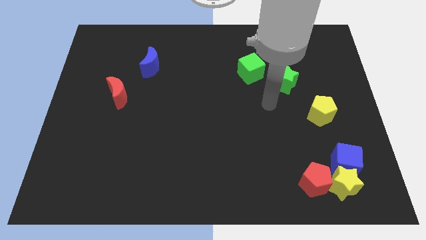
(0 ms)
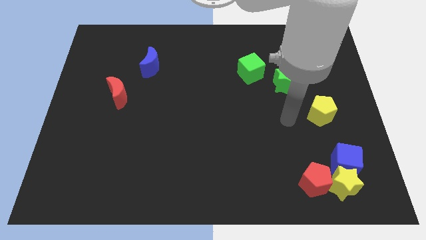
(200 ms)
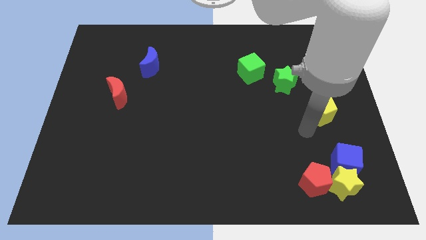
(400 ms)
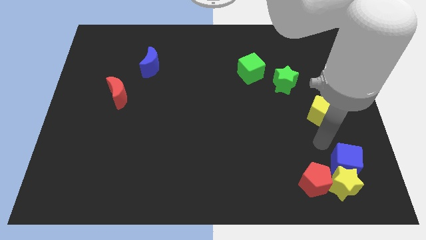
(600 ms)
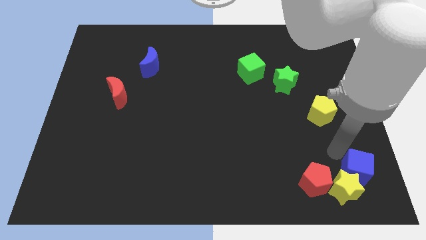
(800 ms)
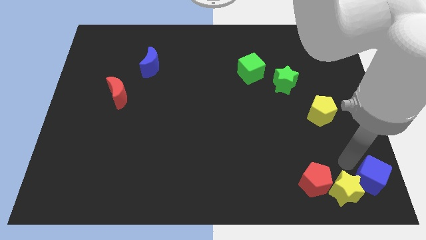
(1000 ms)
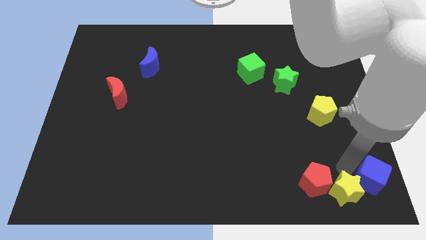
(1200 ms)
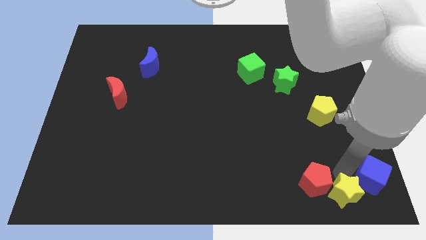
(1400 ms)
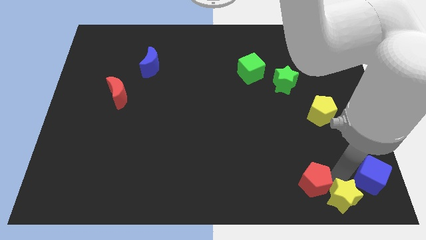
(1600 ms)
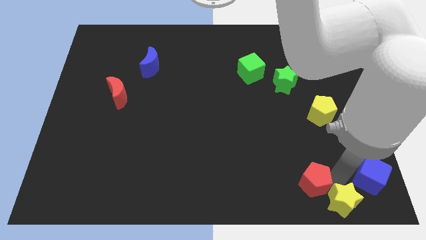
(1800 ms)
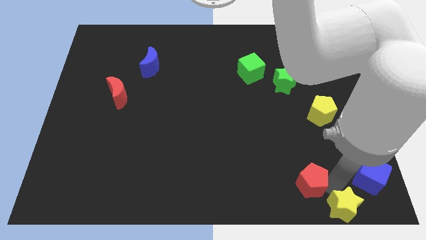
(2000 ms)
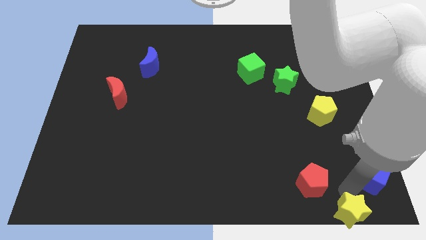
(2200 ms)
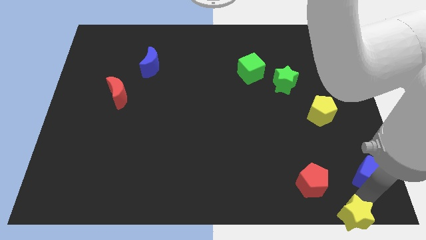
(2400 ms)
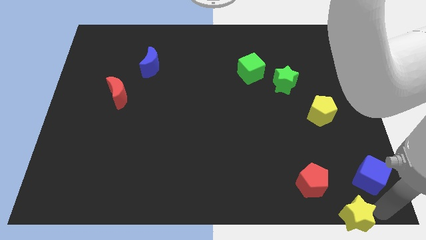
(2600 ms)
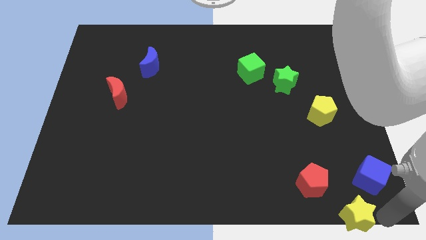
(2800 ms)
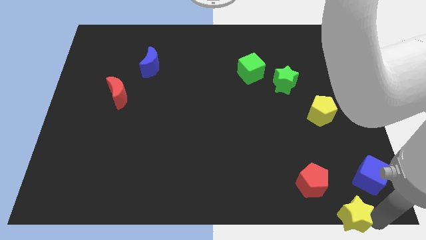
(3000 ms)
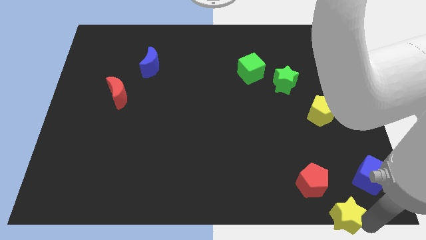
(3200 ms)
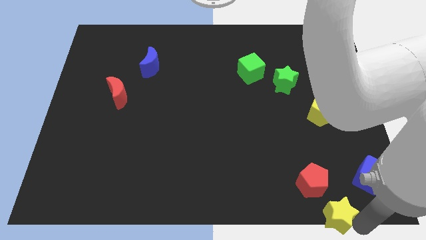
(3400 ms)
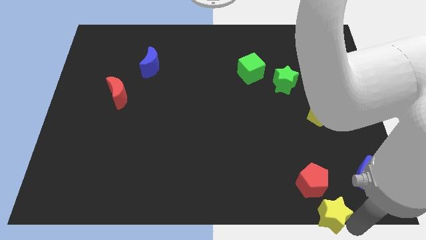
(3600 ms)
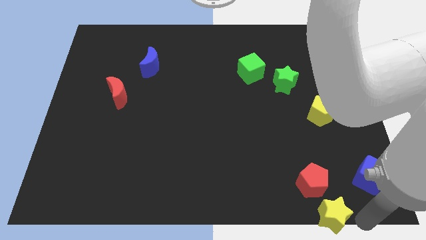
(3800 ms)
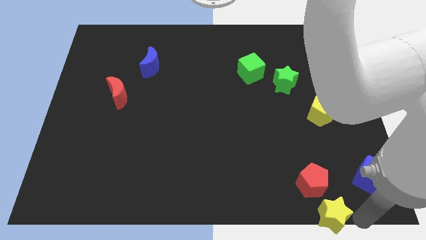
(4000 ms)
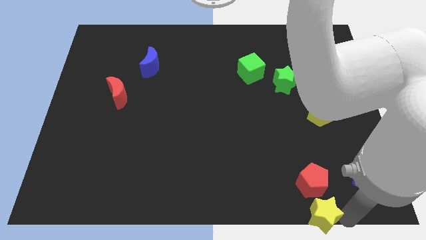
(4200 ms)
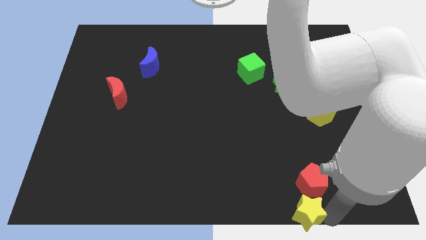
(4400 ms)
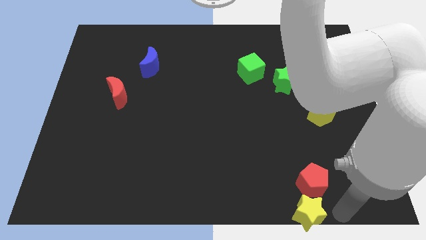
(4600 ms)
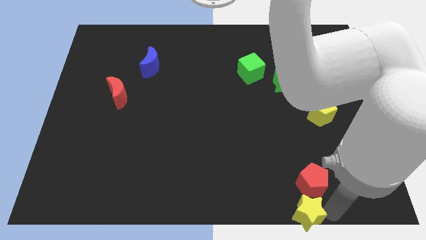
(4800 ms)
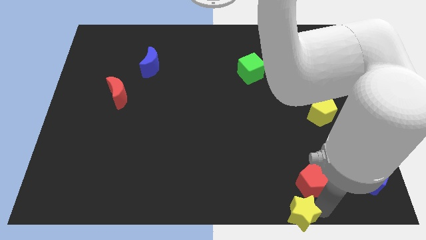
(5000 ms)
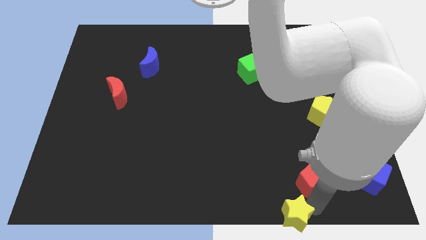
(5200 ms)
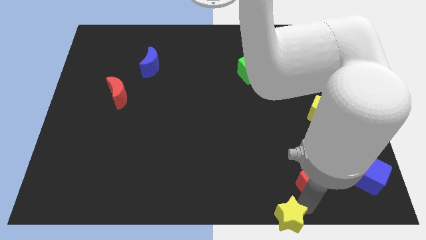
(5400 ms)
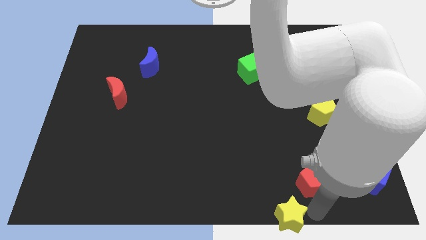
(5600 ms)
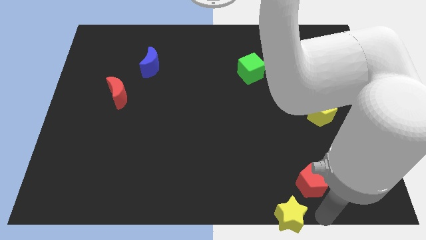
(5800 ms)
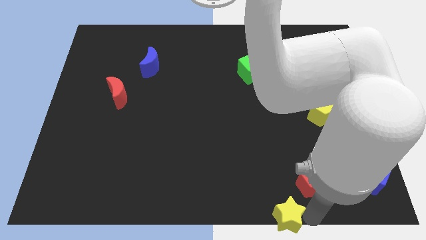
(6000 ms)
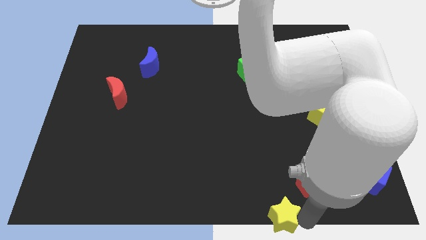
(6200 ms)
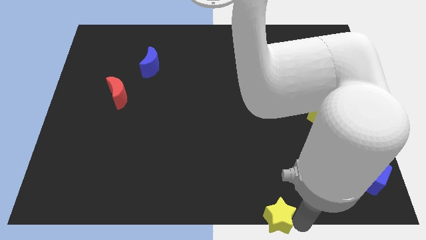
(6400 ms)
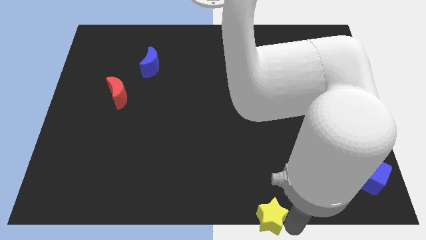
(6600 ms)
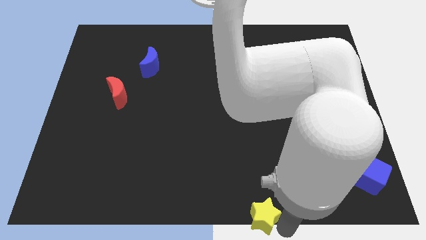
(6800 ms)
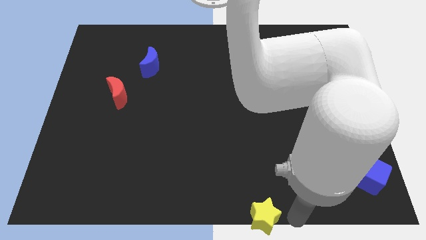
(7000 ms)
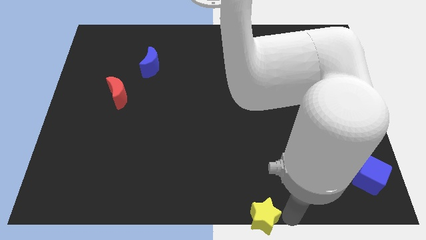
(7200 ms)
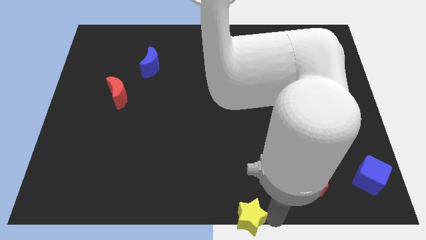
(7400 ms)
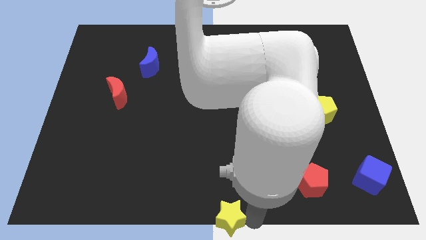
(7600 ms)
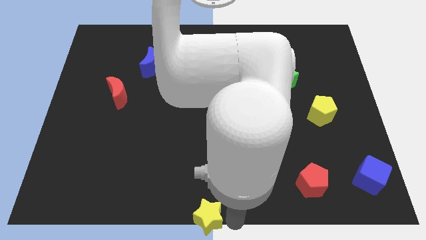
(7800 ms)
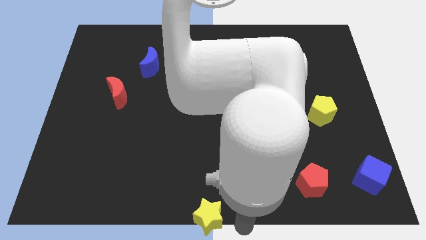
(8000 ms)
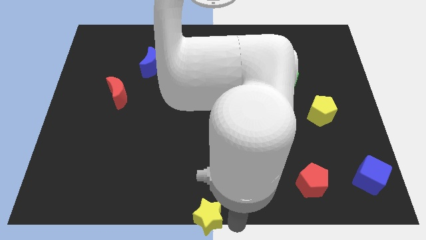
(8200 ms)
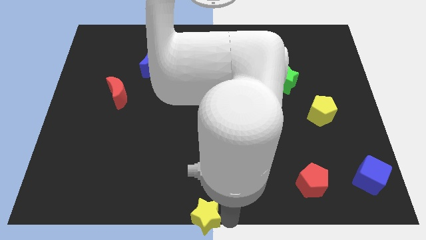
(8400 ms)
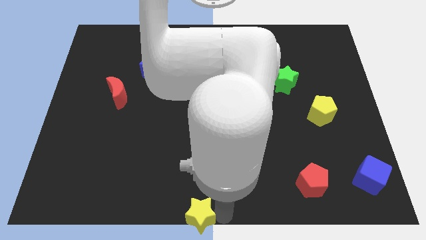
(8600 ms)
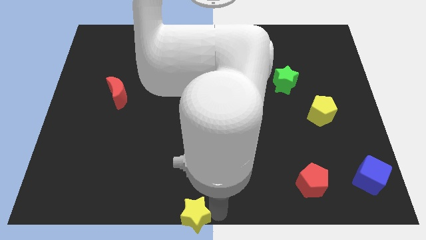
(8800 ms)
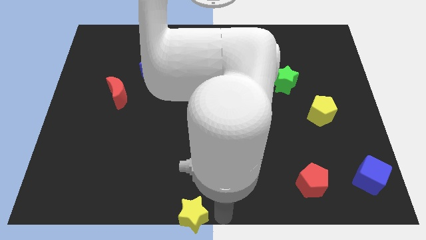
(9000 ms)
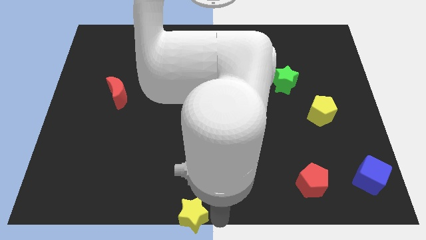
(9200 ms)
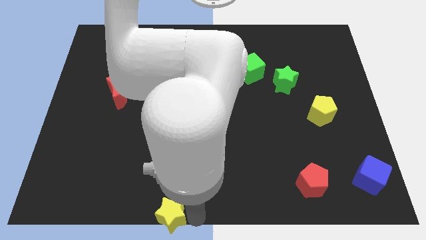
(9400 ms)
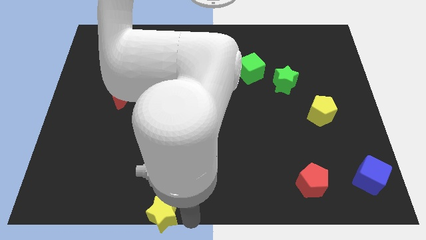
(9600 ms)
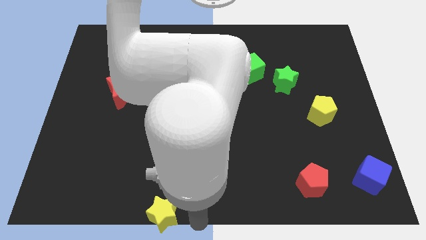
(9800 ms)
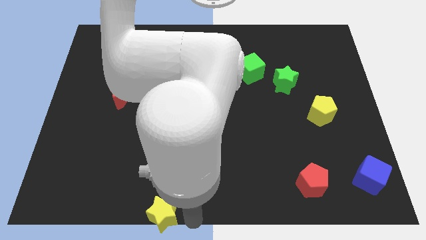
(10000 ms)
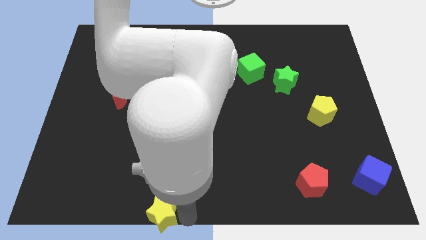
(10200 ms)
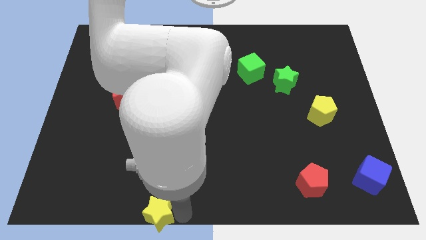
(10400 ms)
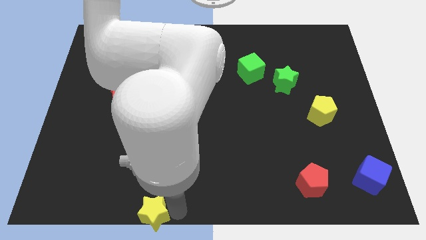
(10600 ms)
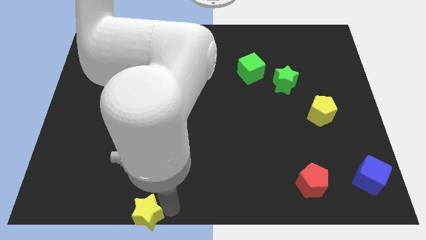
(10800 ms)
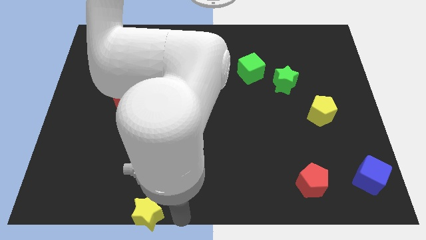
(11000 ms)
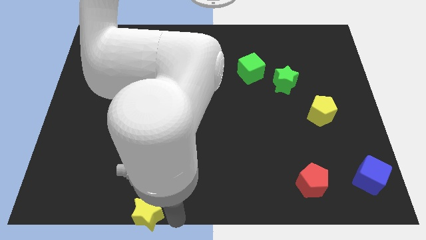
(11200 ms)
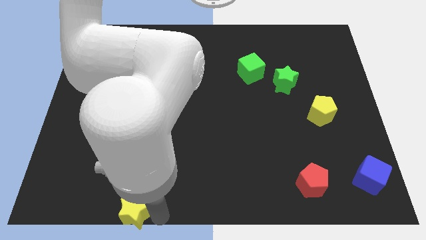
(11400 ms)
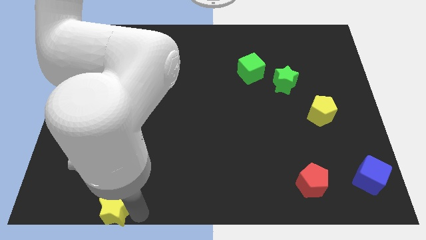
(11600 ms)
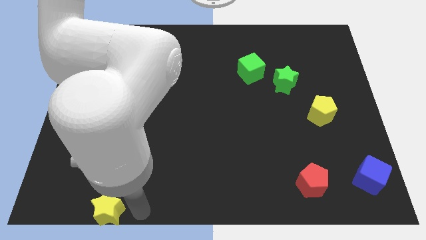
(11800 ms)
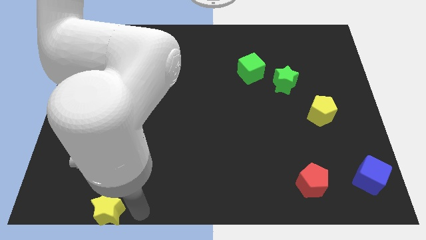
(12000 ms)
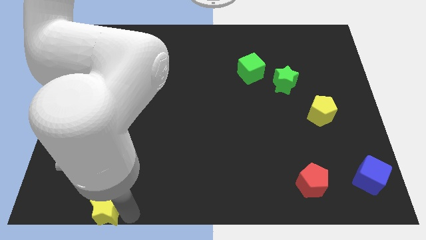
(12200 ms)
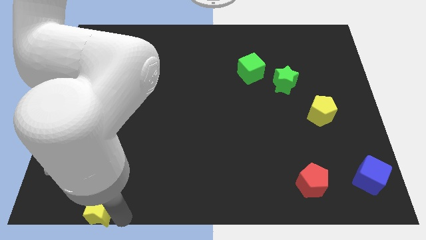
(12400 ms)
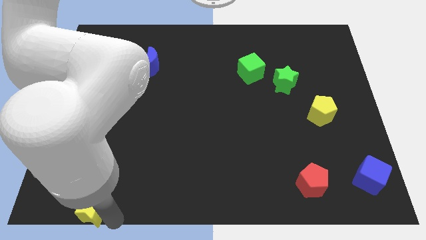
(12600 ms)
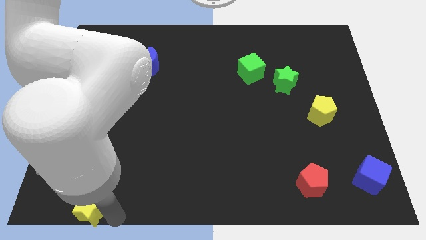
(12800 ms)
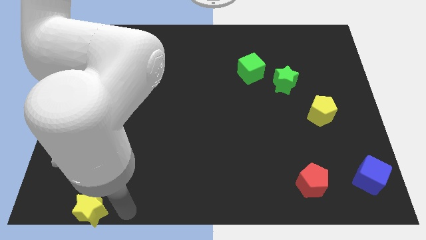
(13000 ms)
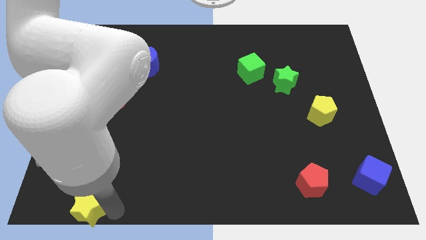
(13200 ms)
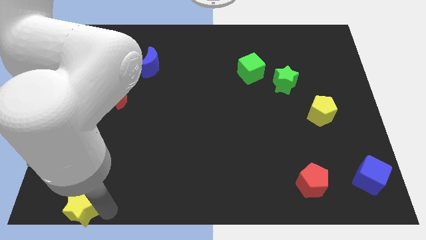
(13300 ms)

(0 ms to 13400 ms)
slide the yellow star to the bottom left corner
